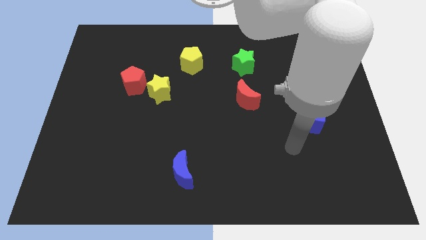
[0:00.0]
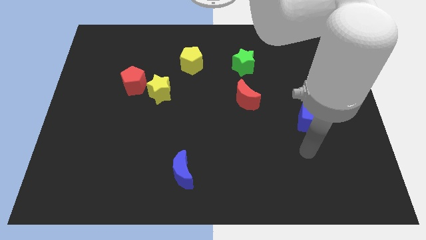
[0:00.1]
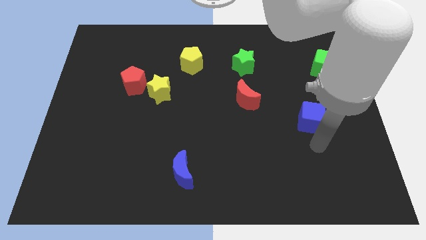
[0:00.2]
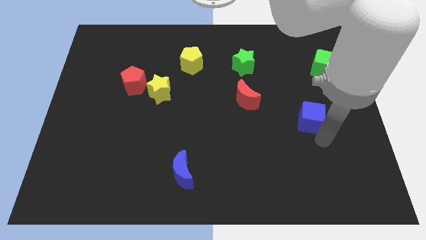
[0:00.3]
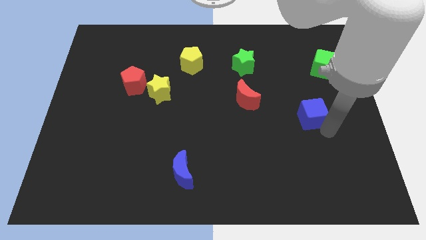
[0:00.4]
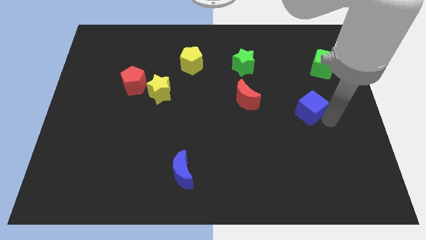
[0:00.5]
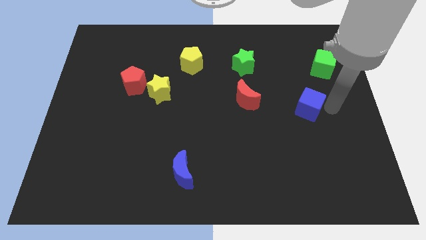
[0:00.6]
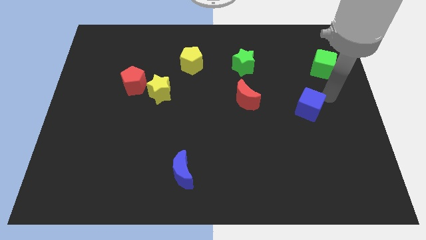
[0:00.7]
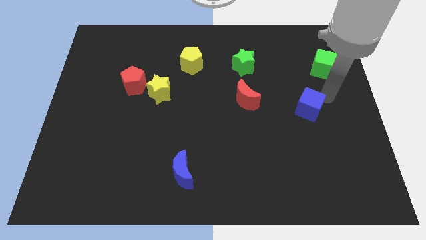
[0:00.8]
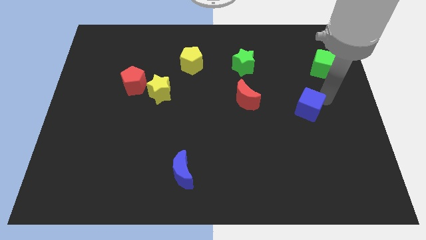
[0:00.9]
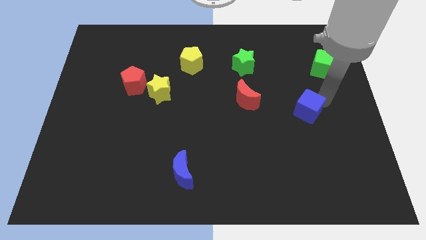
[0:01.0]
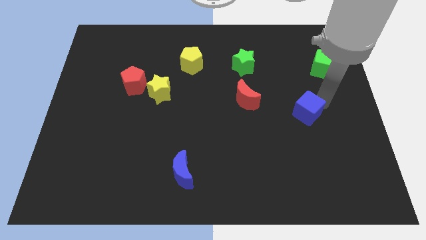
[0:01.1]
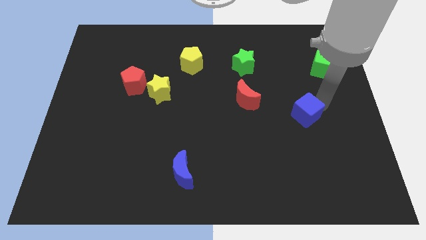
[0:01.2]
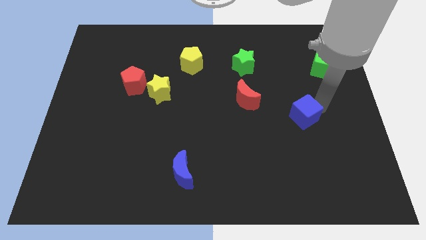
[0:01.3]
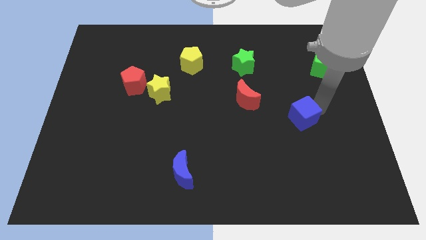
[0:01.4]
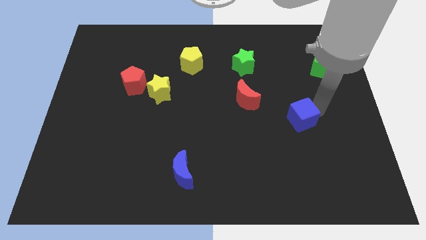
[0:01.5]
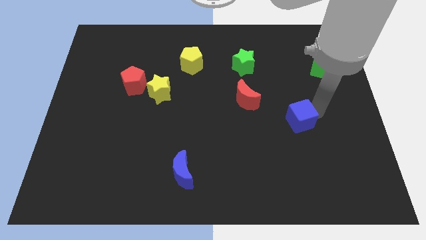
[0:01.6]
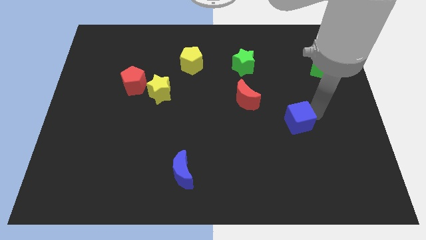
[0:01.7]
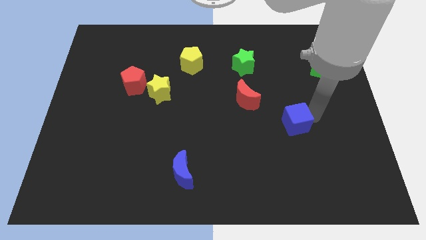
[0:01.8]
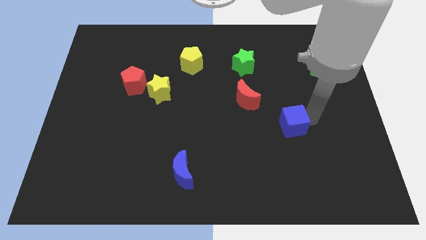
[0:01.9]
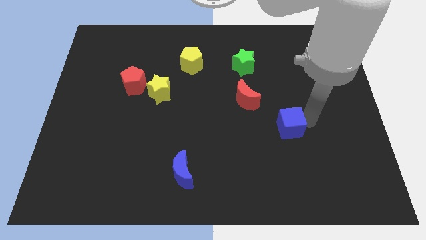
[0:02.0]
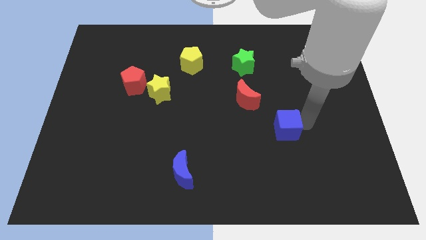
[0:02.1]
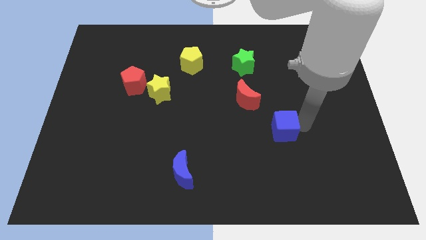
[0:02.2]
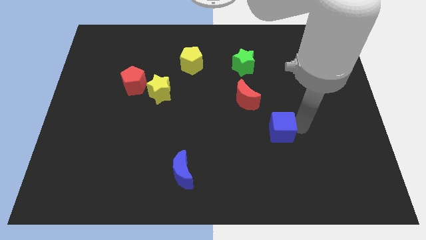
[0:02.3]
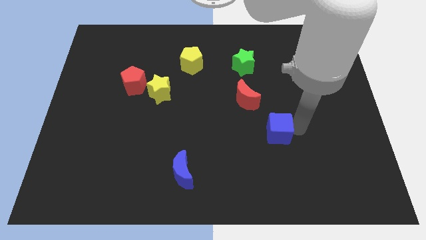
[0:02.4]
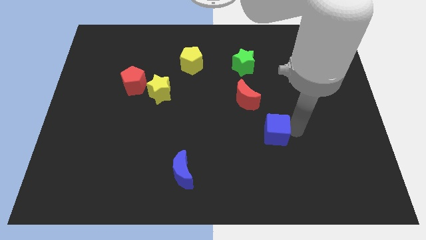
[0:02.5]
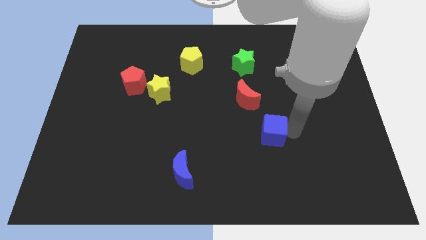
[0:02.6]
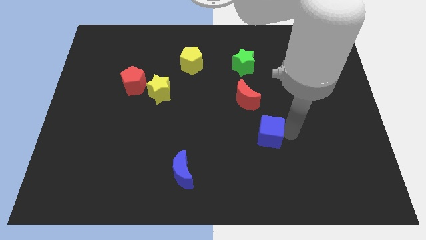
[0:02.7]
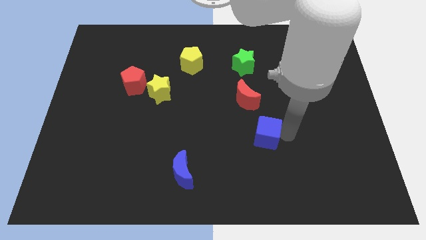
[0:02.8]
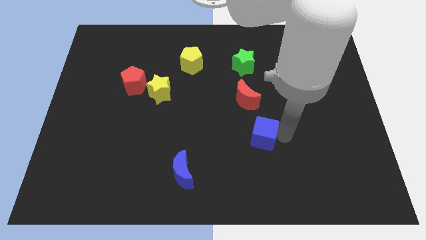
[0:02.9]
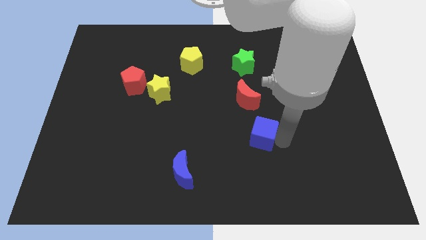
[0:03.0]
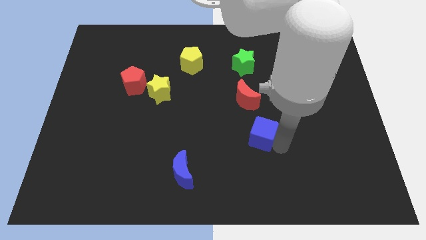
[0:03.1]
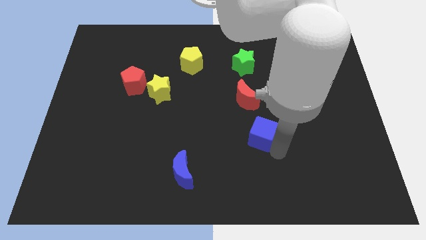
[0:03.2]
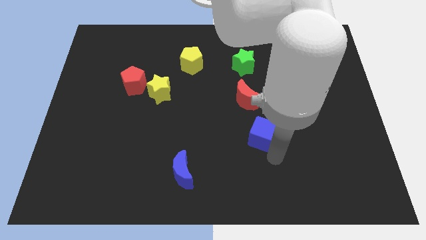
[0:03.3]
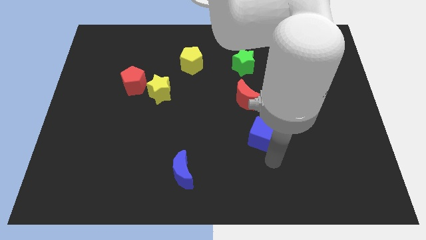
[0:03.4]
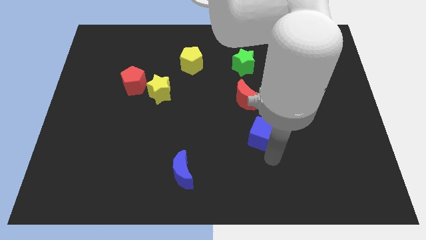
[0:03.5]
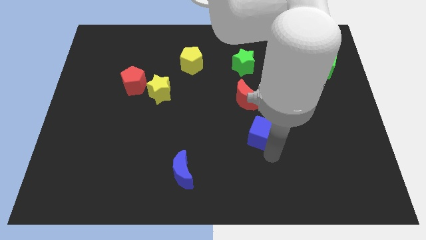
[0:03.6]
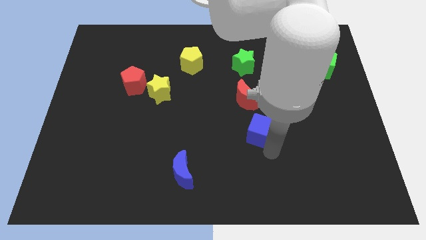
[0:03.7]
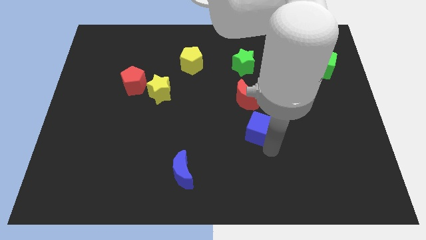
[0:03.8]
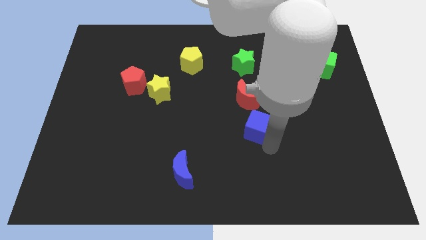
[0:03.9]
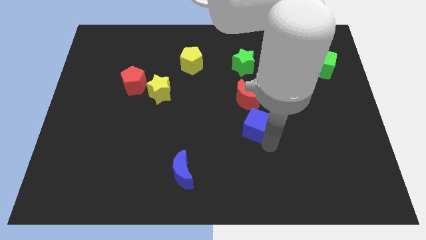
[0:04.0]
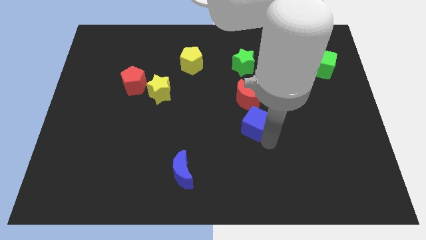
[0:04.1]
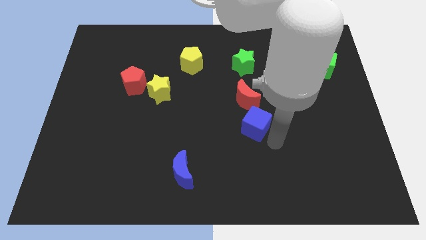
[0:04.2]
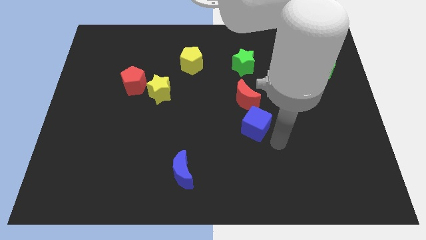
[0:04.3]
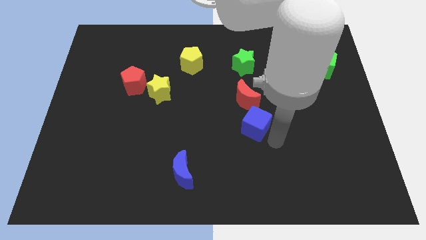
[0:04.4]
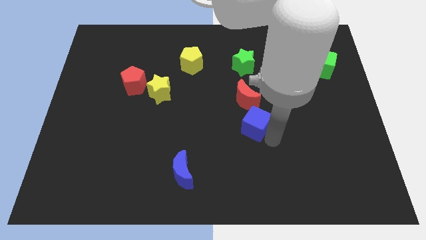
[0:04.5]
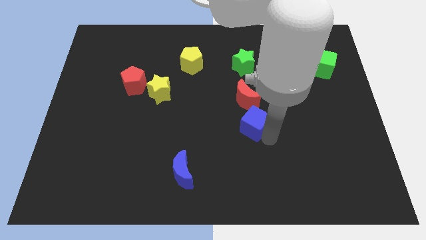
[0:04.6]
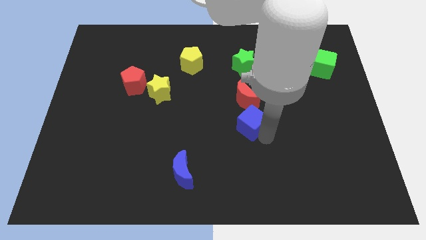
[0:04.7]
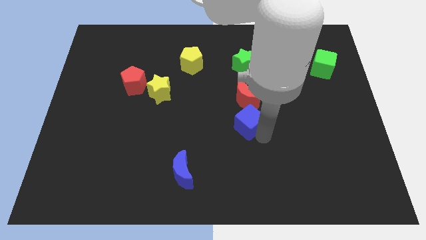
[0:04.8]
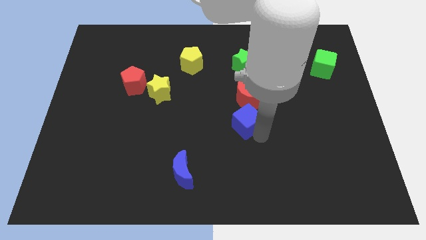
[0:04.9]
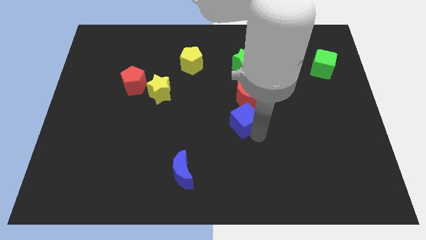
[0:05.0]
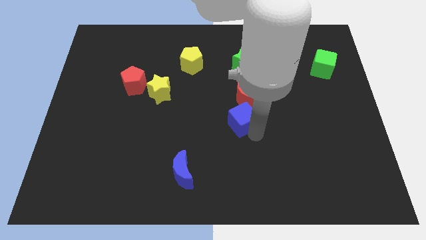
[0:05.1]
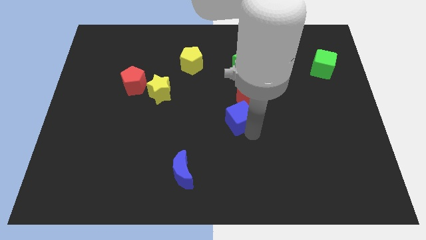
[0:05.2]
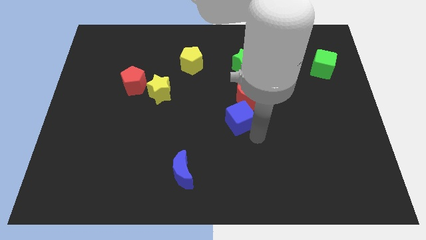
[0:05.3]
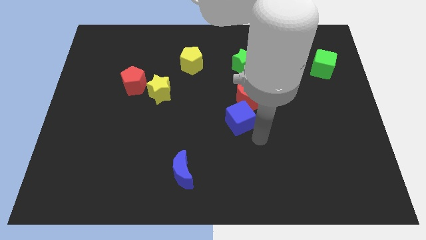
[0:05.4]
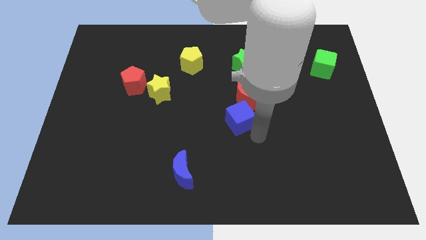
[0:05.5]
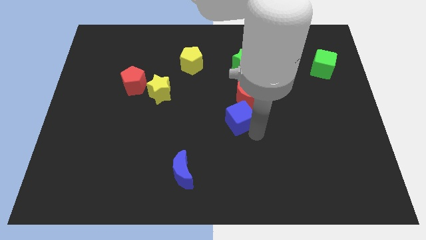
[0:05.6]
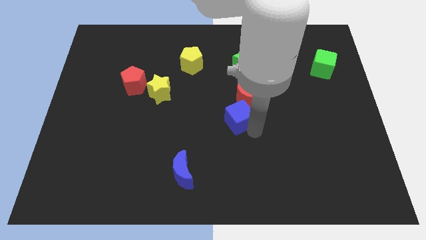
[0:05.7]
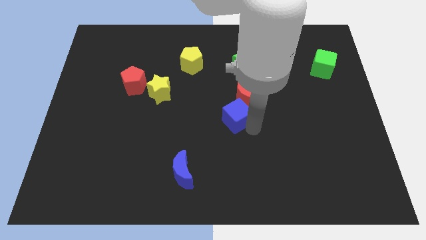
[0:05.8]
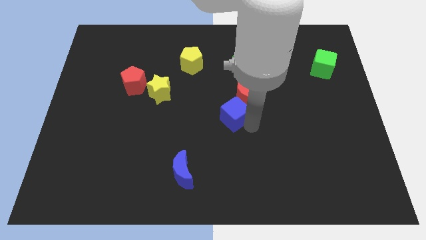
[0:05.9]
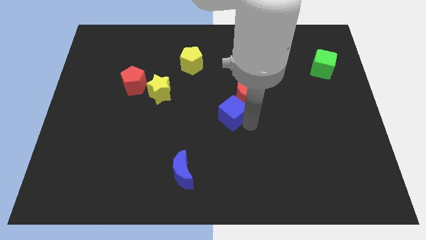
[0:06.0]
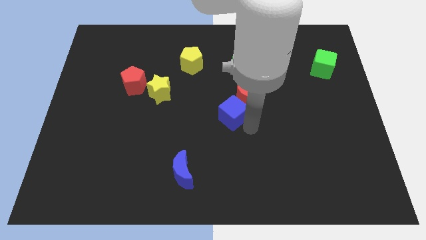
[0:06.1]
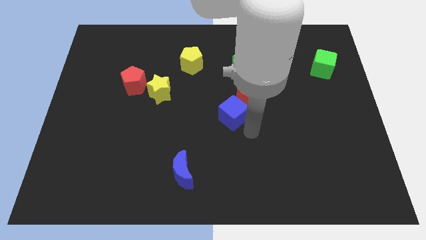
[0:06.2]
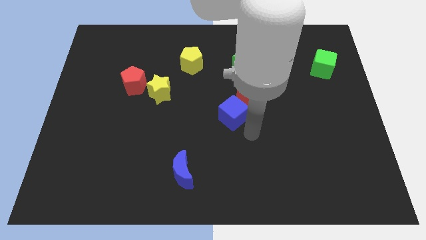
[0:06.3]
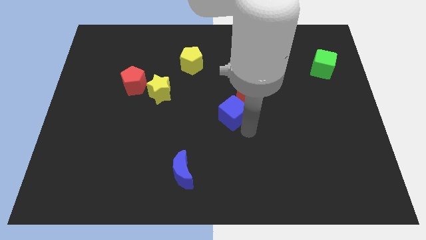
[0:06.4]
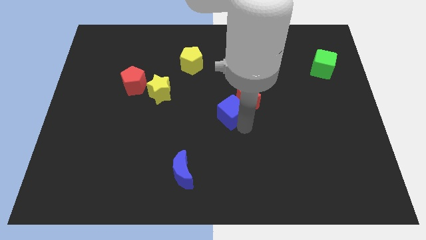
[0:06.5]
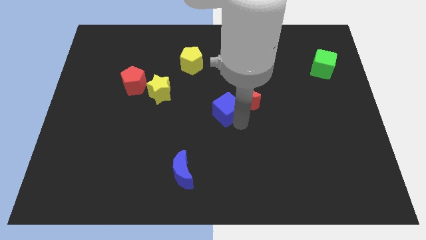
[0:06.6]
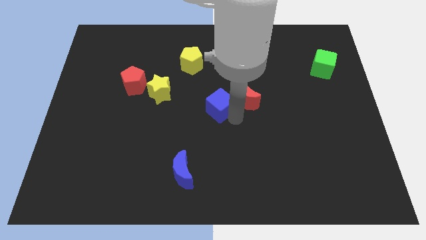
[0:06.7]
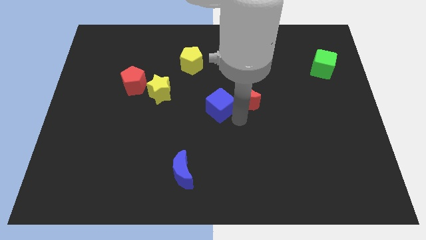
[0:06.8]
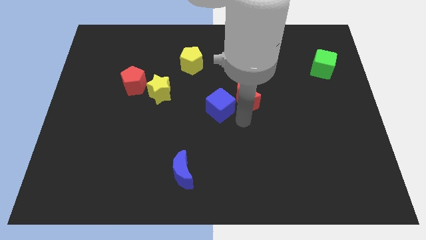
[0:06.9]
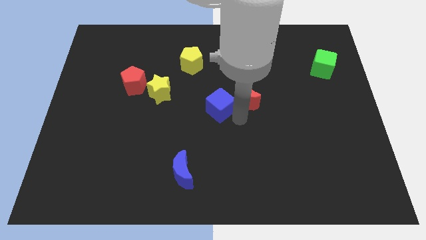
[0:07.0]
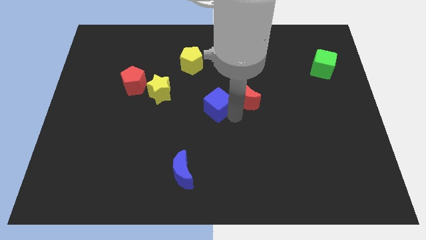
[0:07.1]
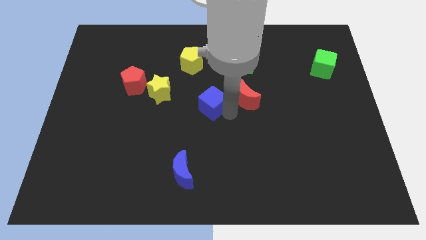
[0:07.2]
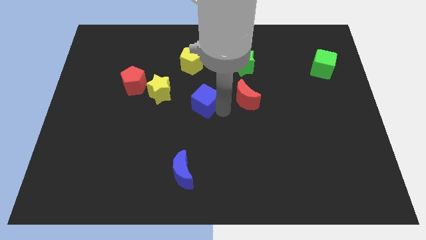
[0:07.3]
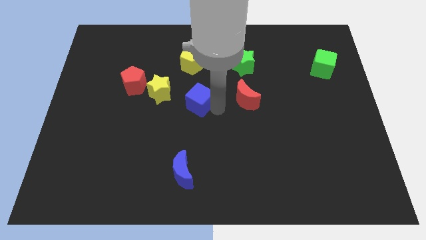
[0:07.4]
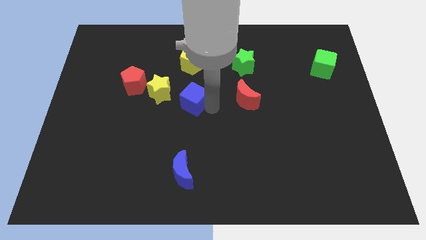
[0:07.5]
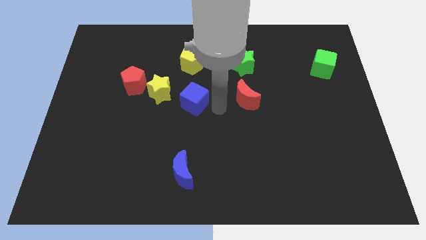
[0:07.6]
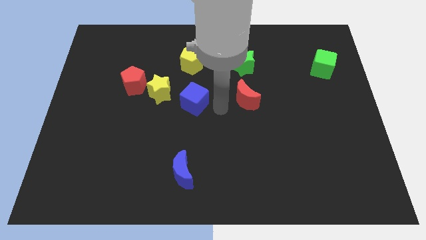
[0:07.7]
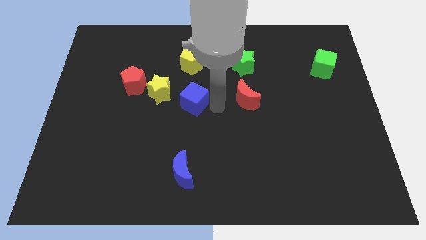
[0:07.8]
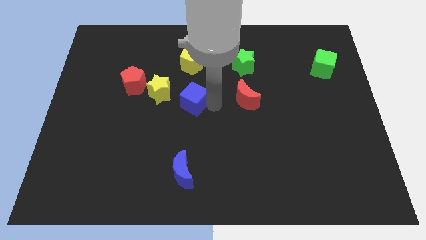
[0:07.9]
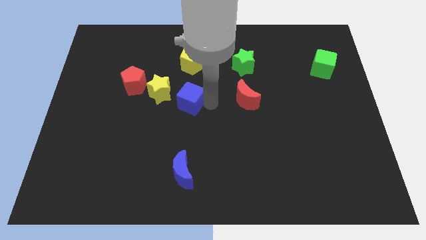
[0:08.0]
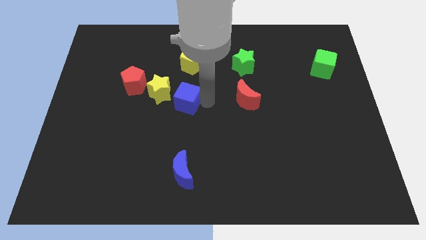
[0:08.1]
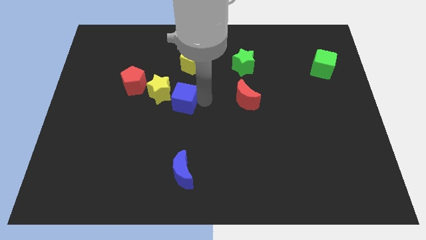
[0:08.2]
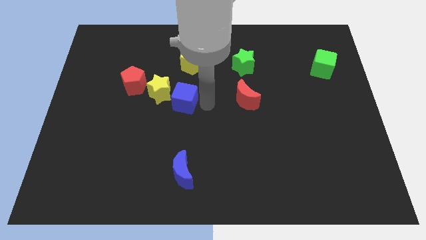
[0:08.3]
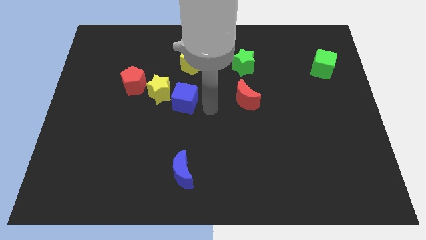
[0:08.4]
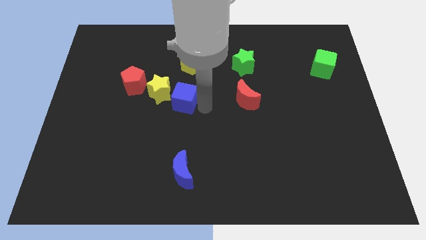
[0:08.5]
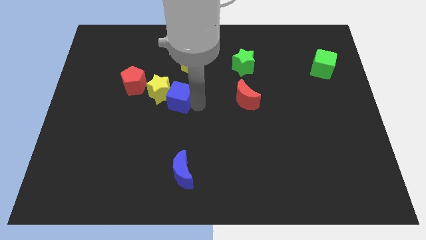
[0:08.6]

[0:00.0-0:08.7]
slide the blue cube close to the yellow star
